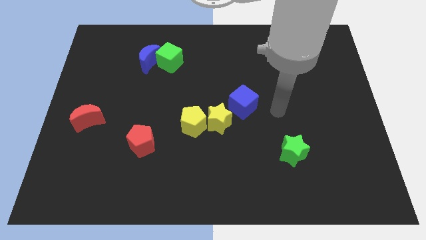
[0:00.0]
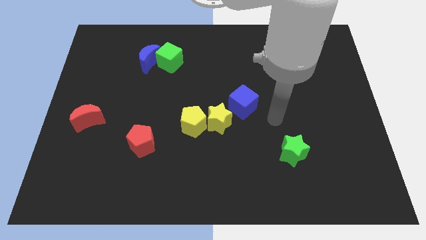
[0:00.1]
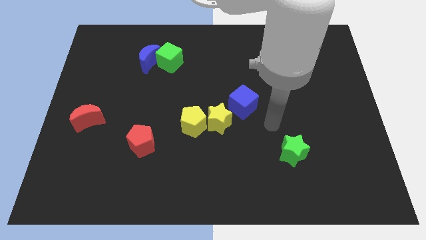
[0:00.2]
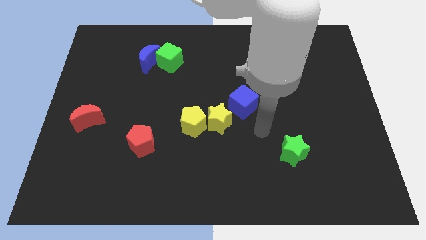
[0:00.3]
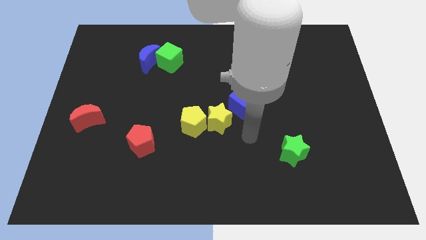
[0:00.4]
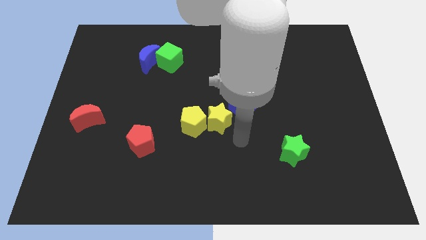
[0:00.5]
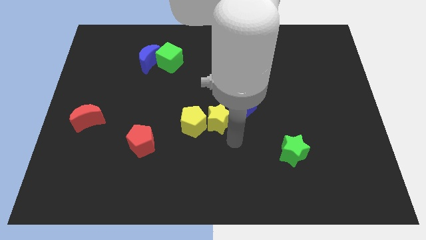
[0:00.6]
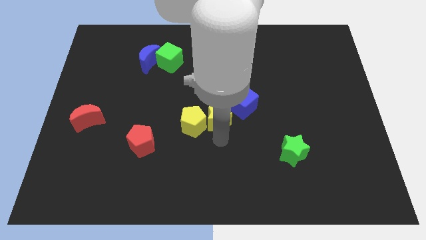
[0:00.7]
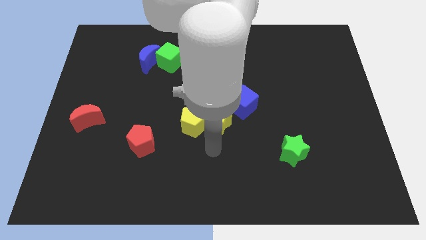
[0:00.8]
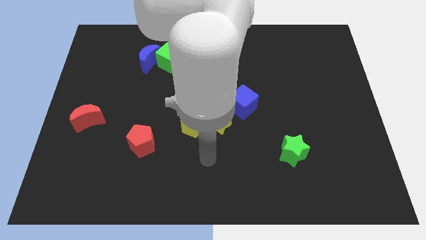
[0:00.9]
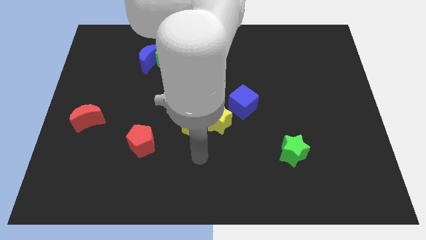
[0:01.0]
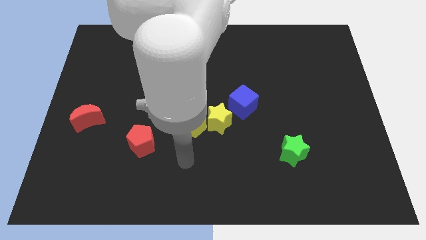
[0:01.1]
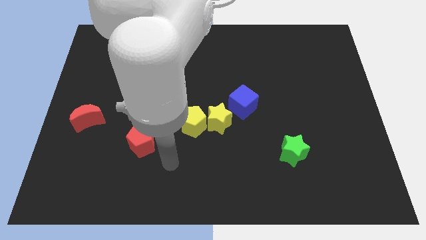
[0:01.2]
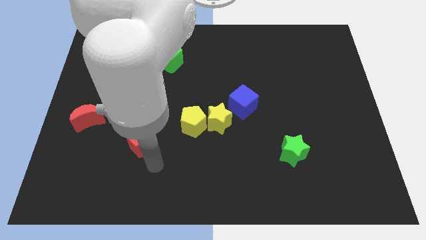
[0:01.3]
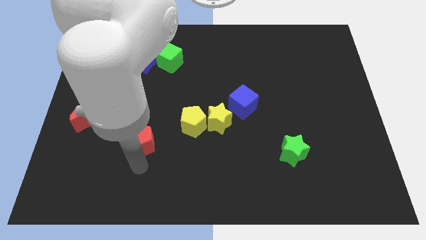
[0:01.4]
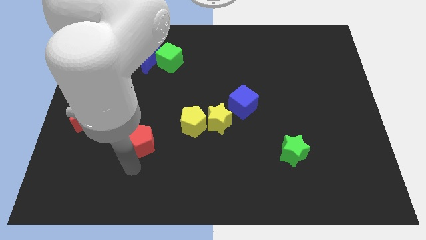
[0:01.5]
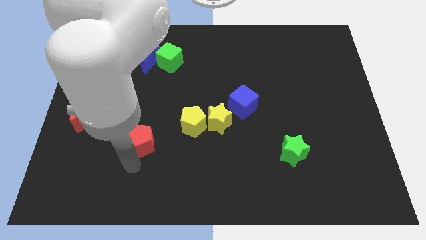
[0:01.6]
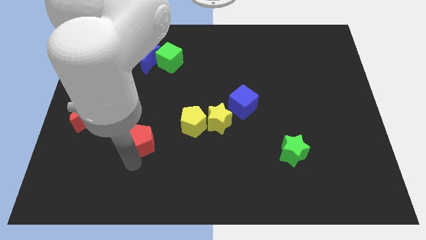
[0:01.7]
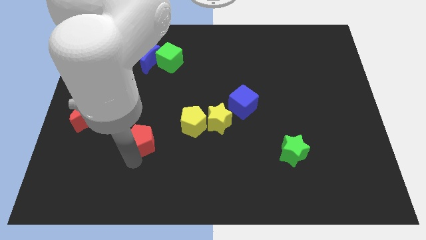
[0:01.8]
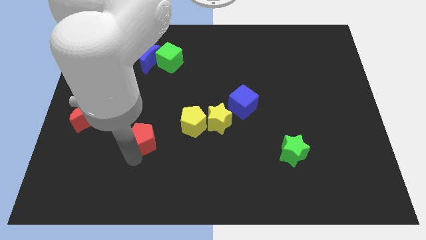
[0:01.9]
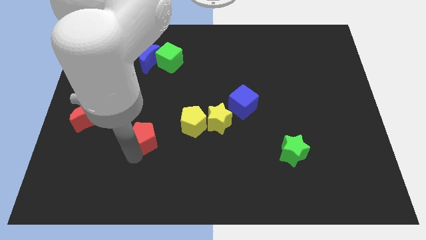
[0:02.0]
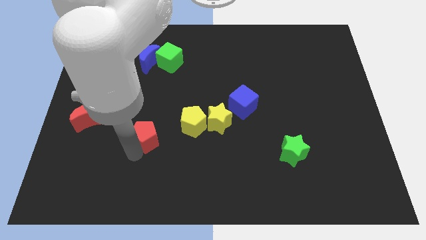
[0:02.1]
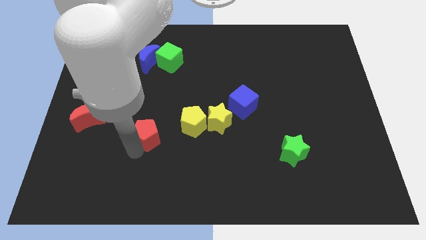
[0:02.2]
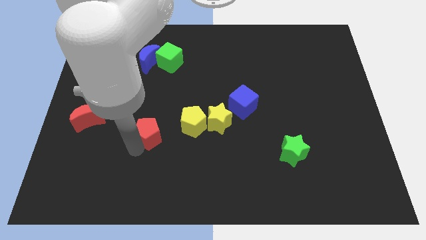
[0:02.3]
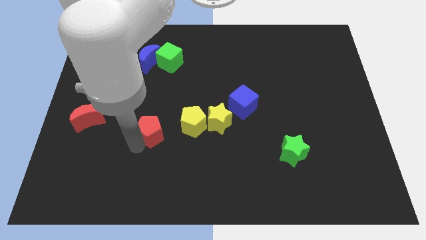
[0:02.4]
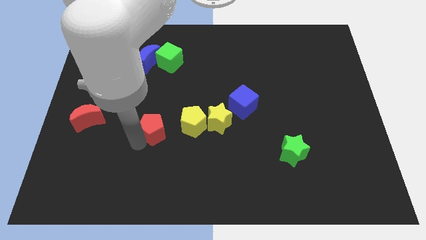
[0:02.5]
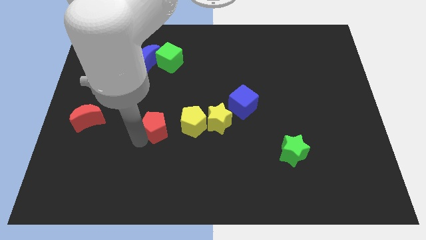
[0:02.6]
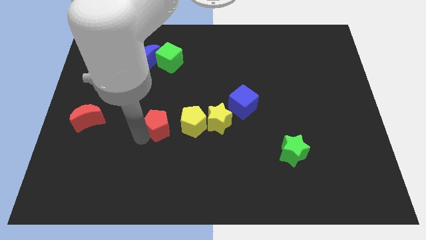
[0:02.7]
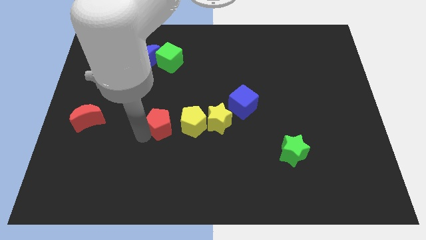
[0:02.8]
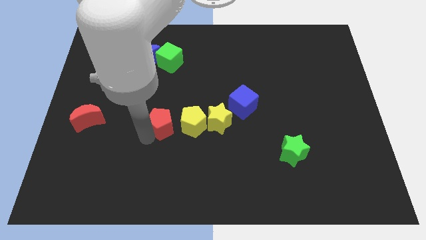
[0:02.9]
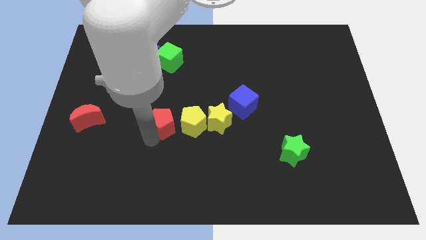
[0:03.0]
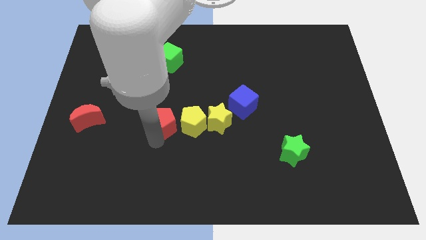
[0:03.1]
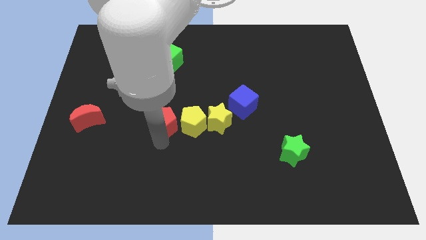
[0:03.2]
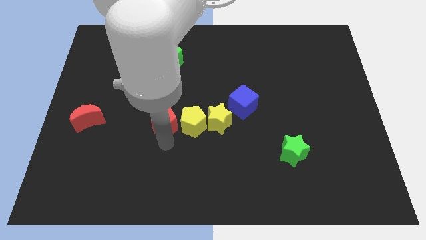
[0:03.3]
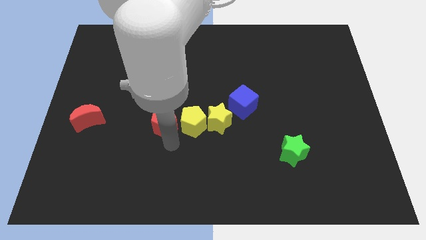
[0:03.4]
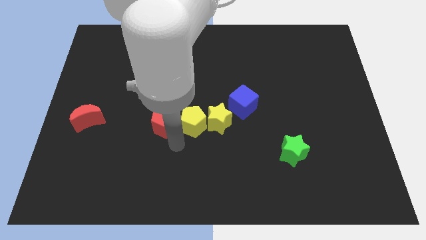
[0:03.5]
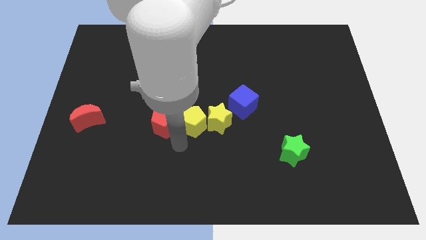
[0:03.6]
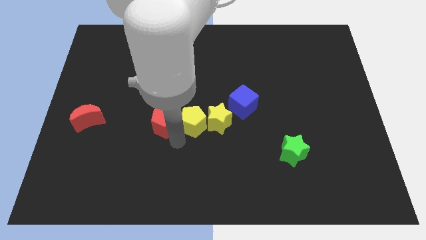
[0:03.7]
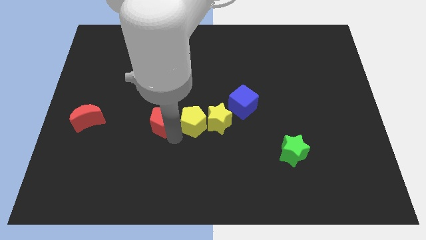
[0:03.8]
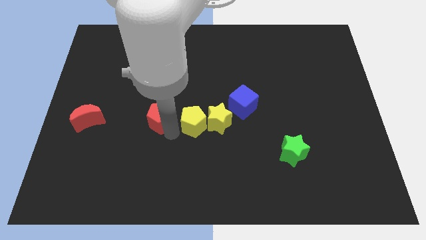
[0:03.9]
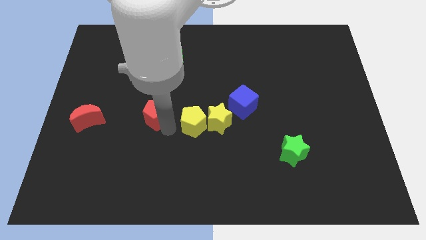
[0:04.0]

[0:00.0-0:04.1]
slightly slide the red pentagon up

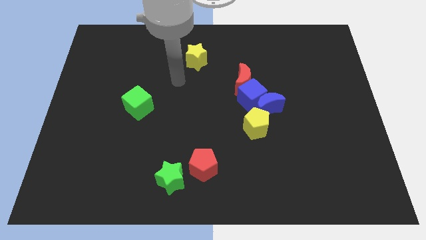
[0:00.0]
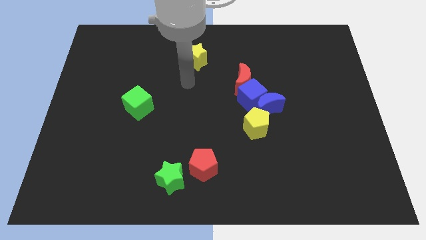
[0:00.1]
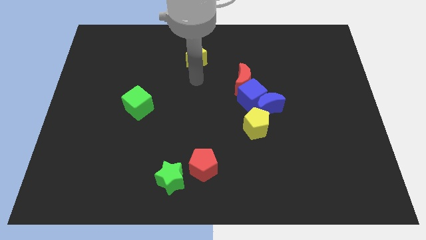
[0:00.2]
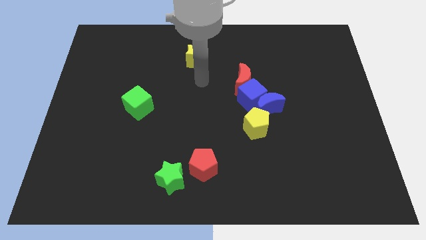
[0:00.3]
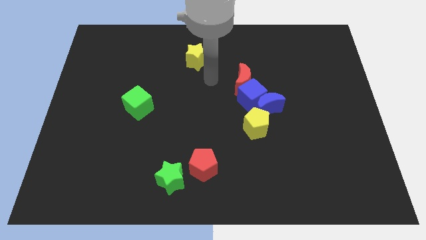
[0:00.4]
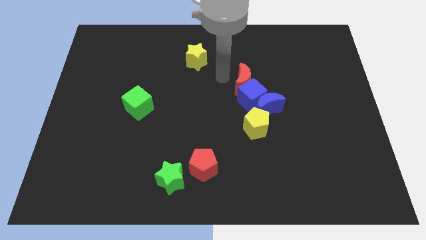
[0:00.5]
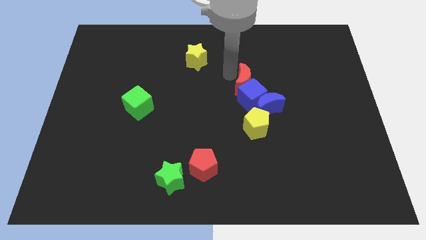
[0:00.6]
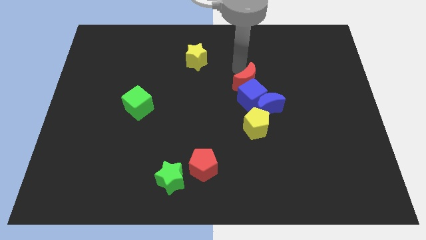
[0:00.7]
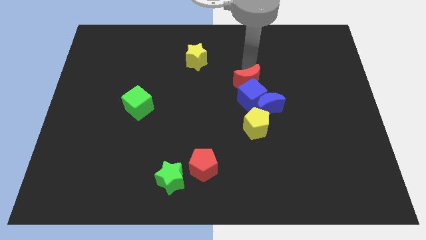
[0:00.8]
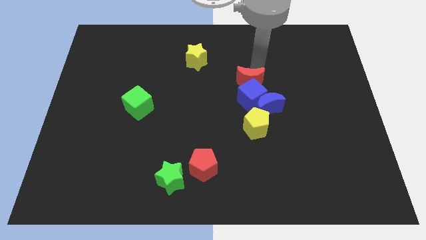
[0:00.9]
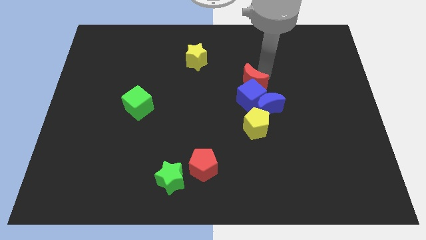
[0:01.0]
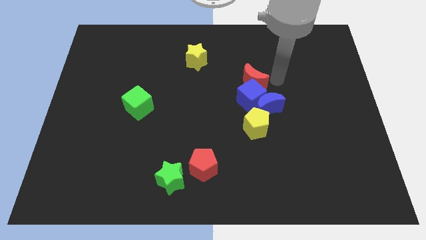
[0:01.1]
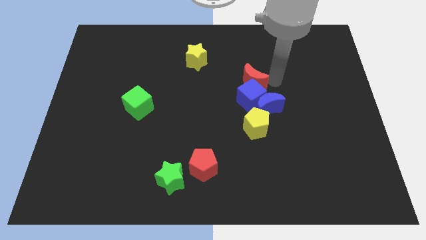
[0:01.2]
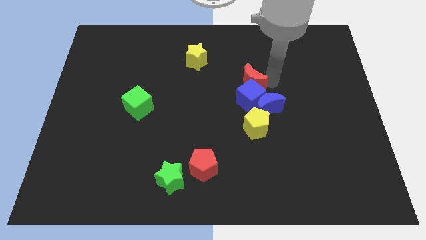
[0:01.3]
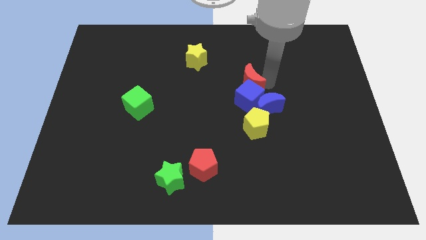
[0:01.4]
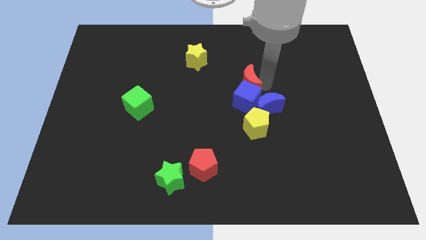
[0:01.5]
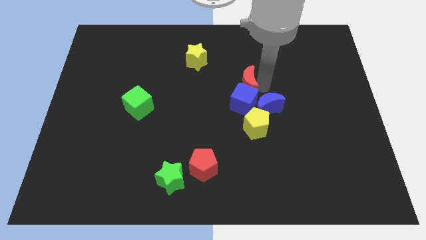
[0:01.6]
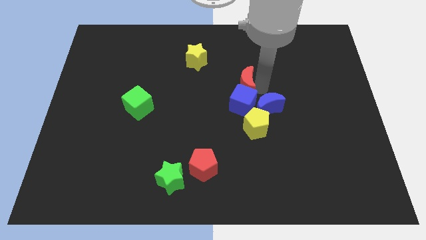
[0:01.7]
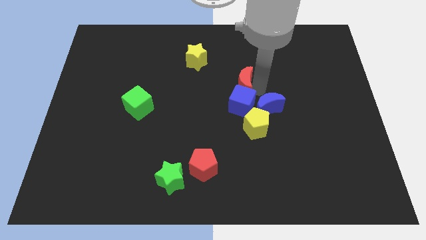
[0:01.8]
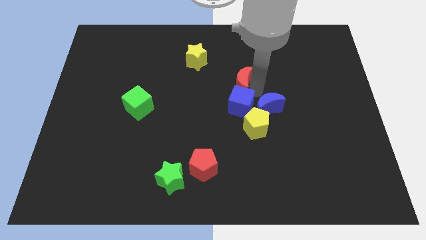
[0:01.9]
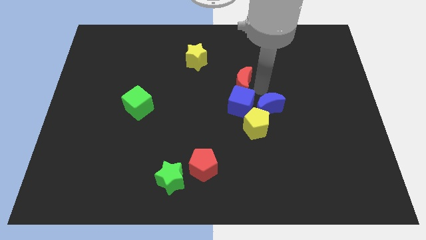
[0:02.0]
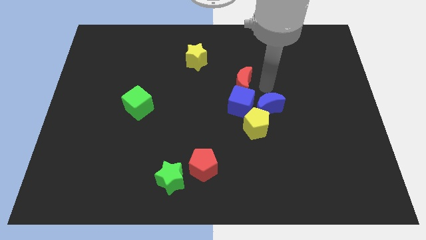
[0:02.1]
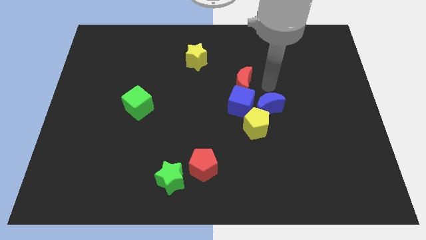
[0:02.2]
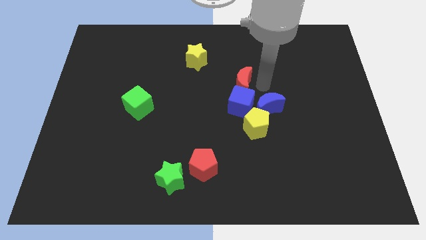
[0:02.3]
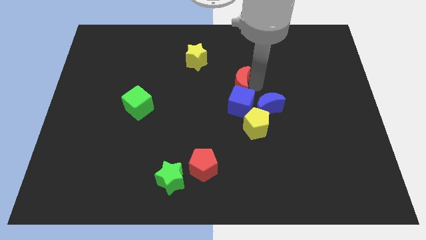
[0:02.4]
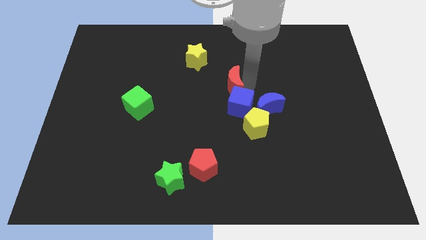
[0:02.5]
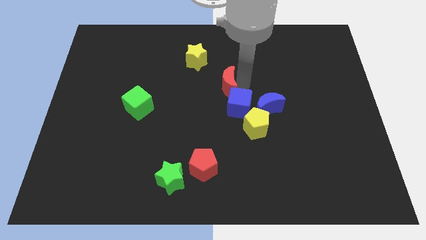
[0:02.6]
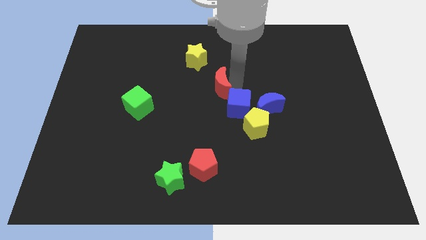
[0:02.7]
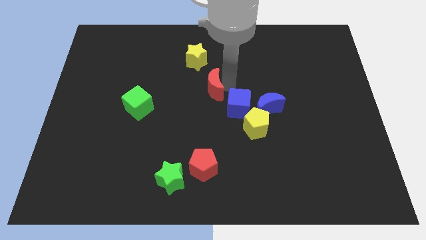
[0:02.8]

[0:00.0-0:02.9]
push the red moon a little bit left

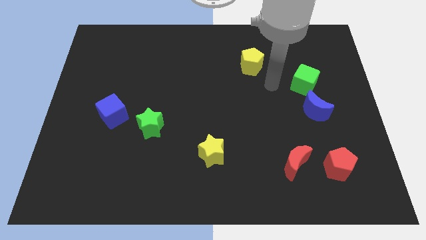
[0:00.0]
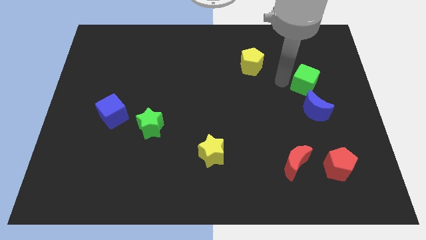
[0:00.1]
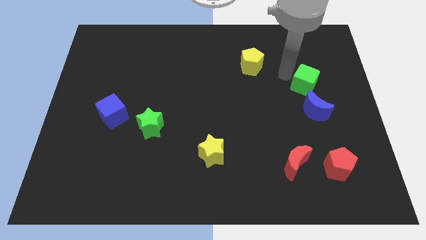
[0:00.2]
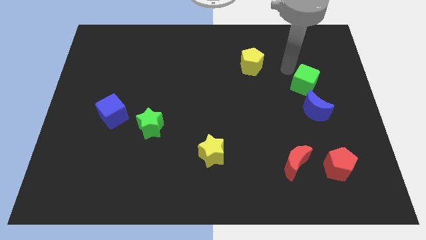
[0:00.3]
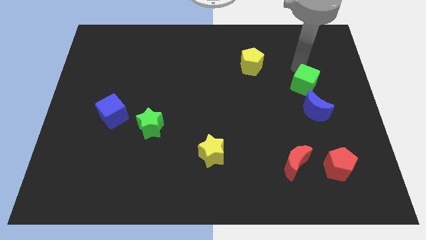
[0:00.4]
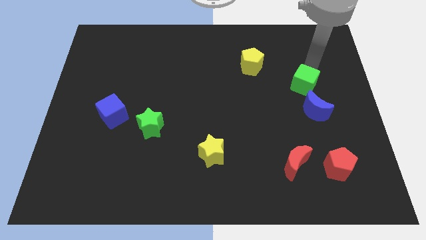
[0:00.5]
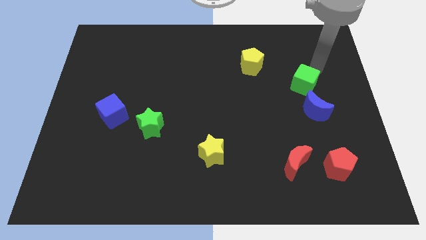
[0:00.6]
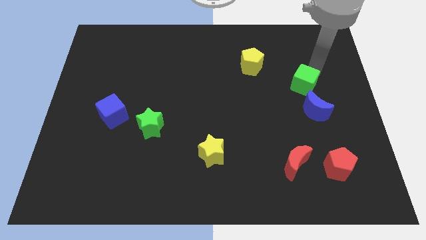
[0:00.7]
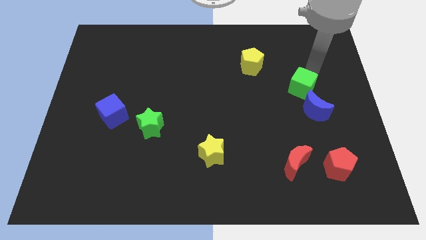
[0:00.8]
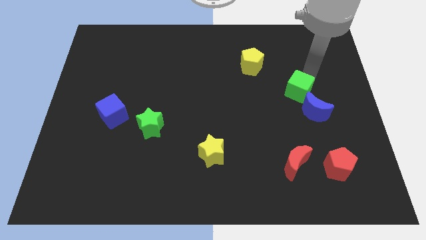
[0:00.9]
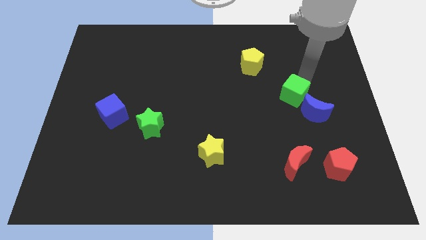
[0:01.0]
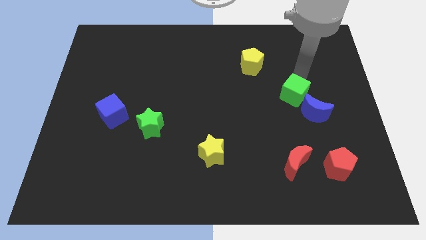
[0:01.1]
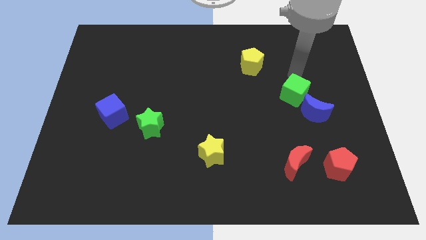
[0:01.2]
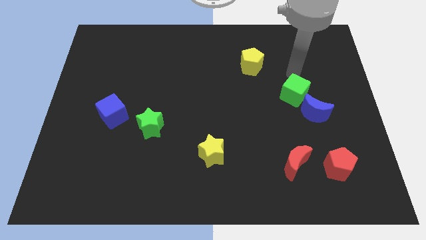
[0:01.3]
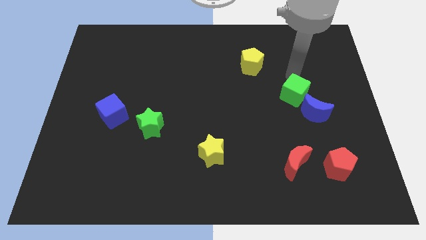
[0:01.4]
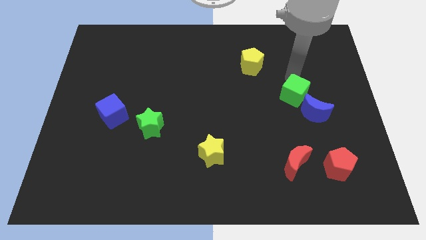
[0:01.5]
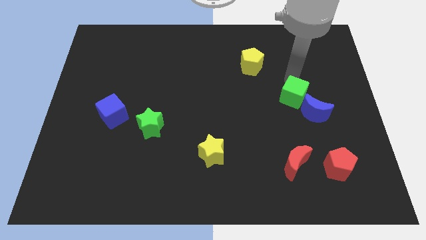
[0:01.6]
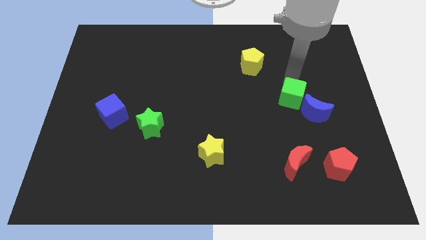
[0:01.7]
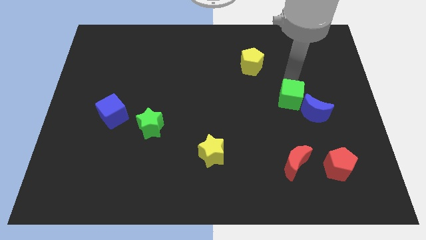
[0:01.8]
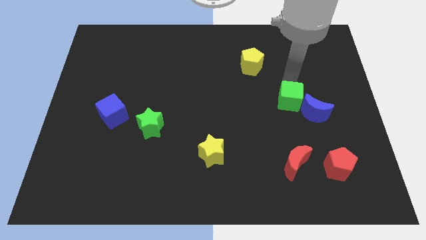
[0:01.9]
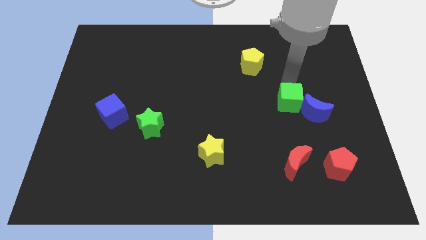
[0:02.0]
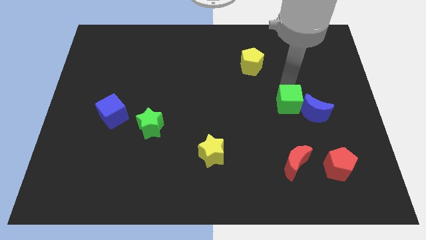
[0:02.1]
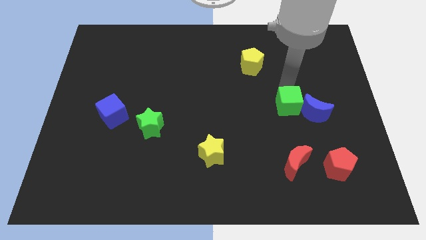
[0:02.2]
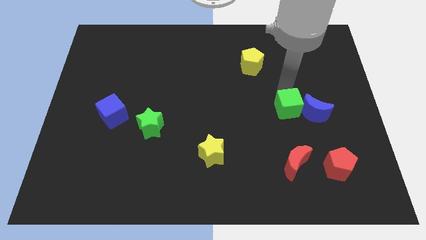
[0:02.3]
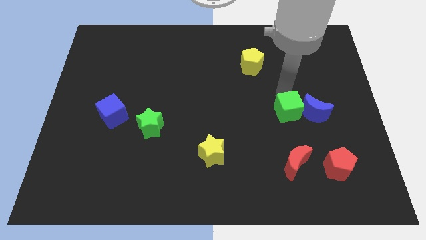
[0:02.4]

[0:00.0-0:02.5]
move the green cube somewhat downwards
